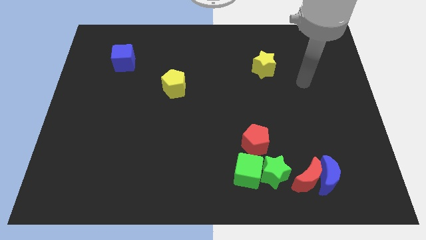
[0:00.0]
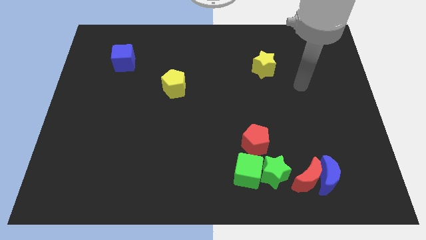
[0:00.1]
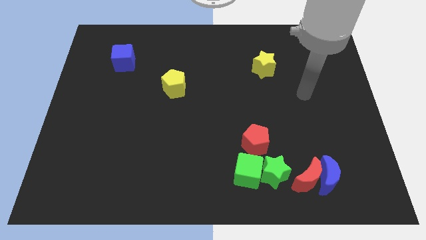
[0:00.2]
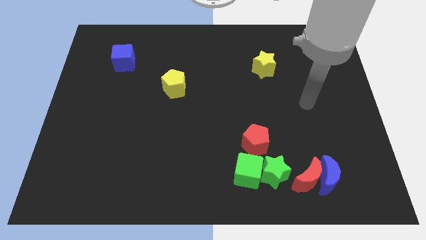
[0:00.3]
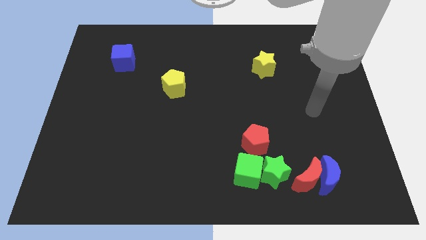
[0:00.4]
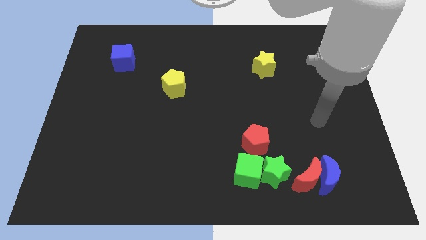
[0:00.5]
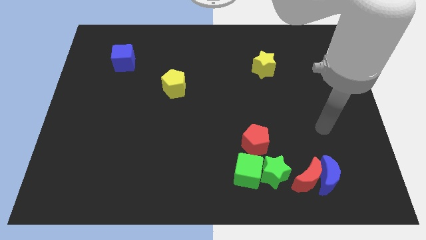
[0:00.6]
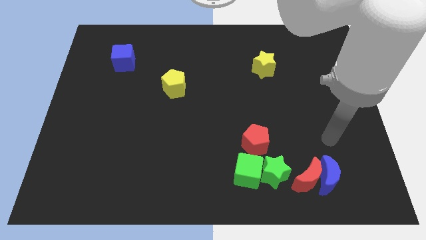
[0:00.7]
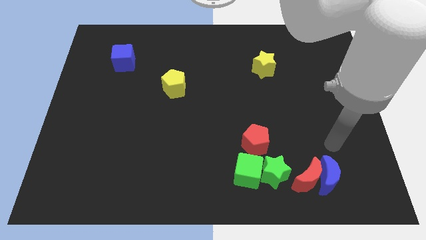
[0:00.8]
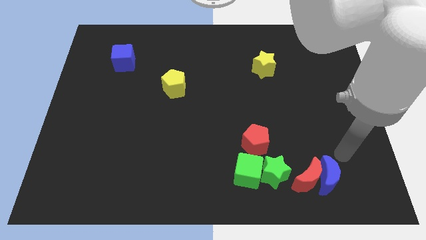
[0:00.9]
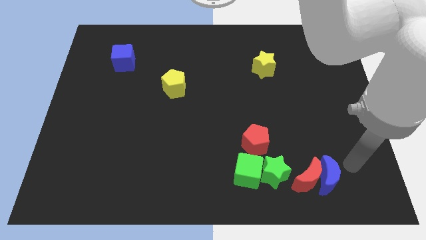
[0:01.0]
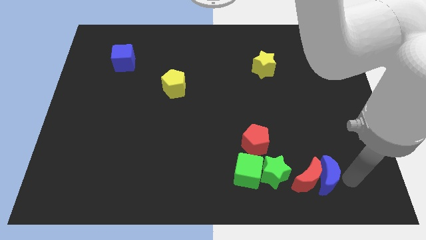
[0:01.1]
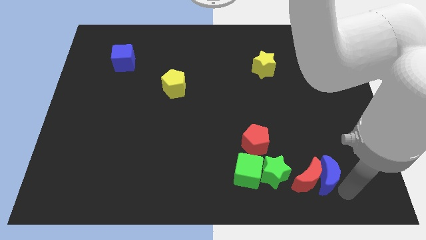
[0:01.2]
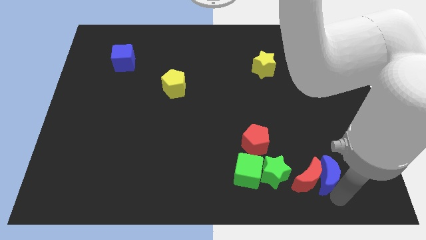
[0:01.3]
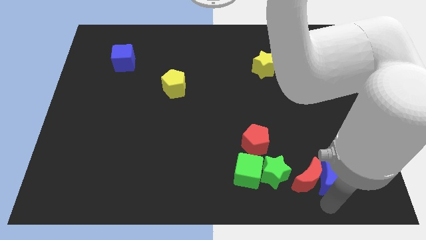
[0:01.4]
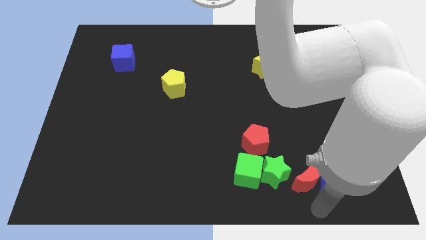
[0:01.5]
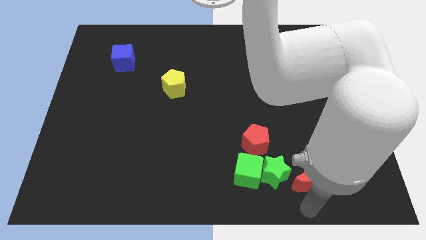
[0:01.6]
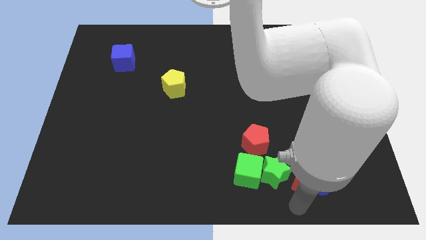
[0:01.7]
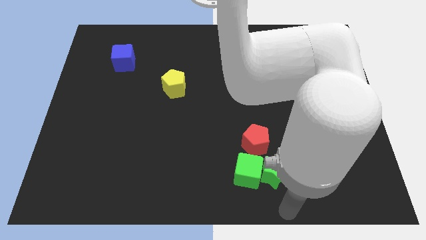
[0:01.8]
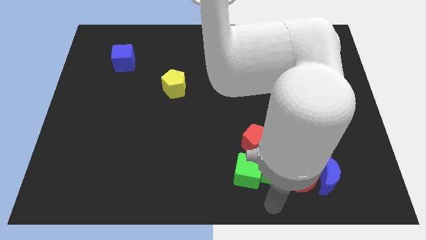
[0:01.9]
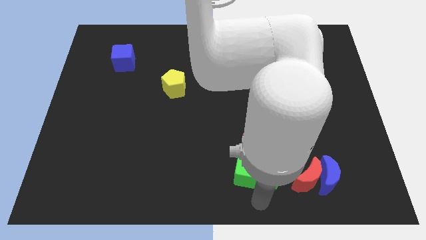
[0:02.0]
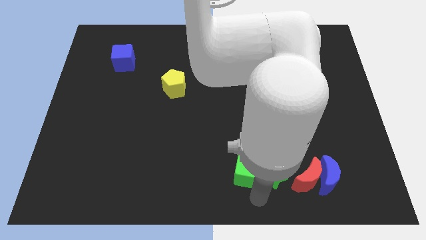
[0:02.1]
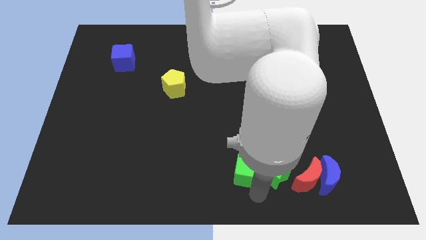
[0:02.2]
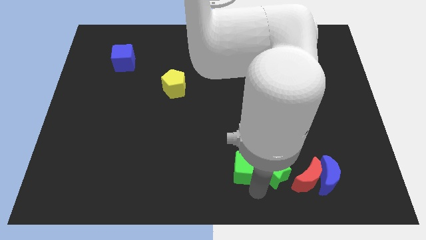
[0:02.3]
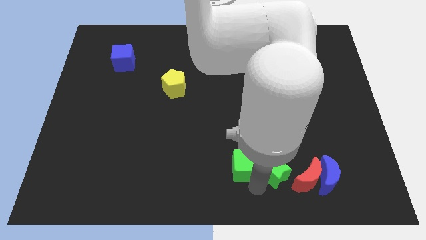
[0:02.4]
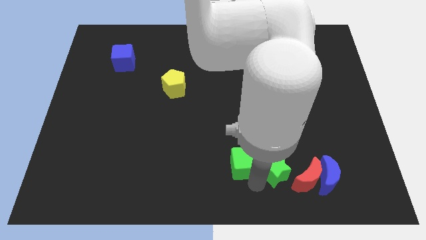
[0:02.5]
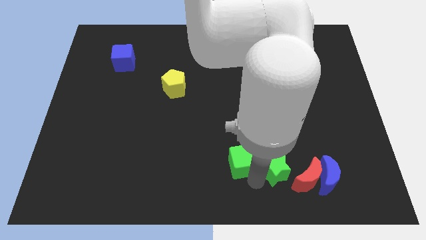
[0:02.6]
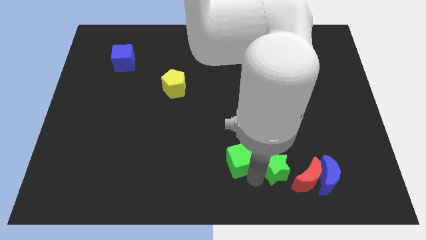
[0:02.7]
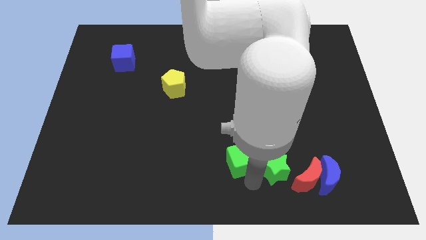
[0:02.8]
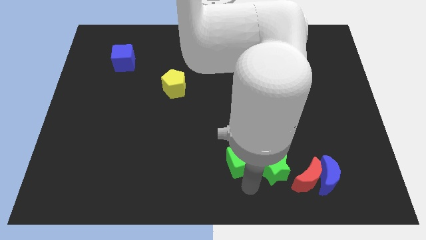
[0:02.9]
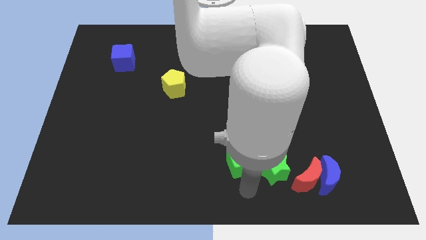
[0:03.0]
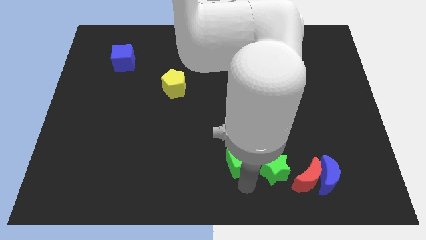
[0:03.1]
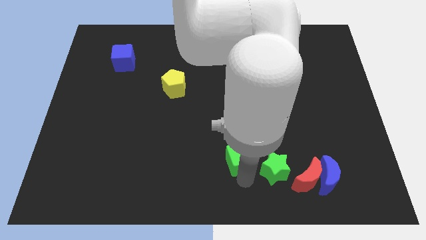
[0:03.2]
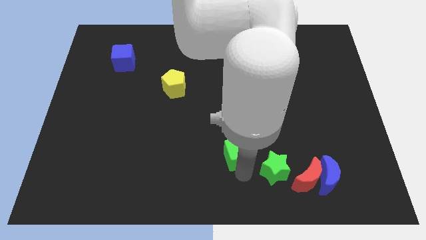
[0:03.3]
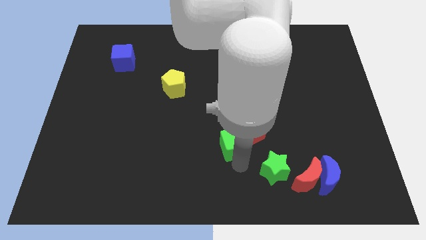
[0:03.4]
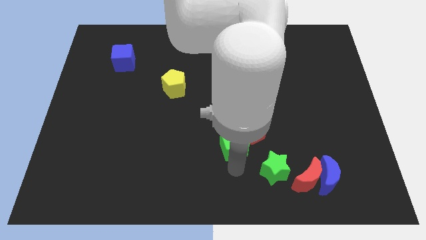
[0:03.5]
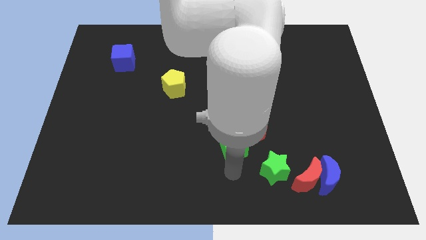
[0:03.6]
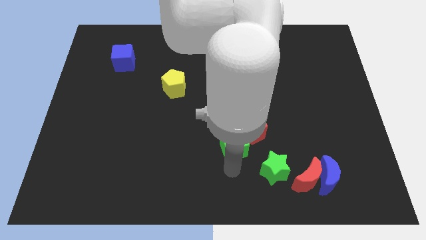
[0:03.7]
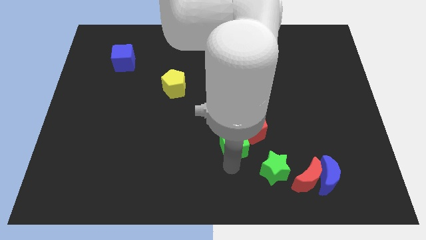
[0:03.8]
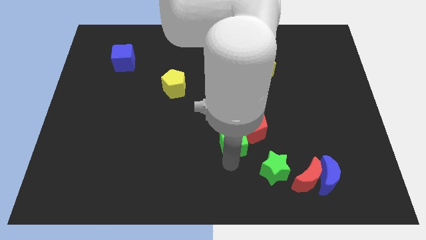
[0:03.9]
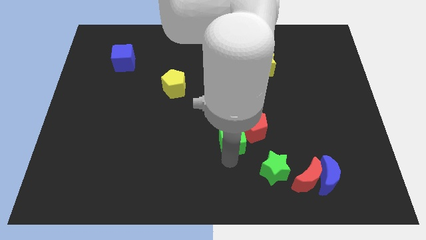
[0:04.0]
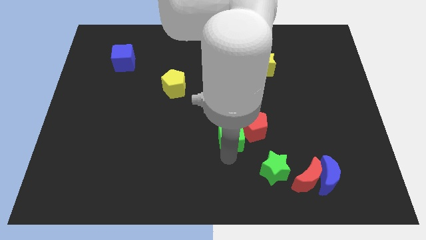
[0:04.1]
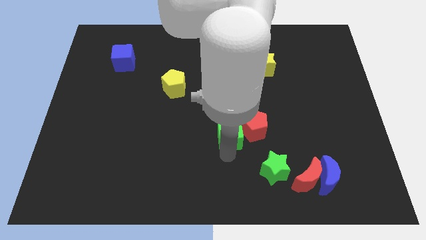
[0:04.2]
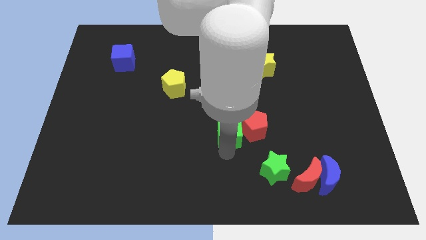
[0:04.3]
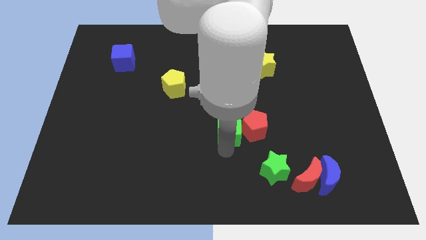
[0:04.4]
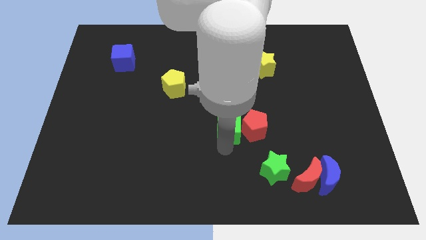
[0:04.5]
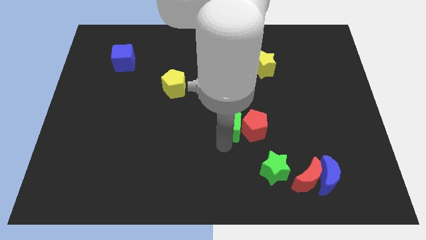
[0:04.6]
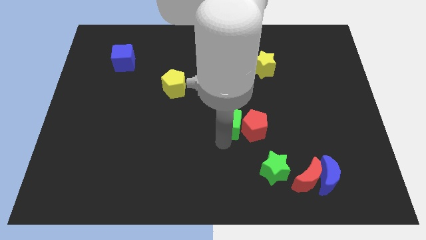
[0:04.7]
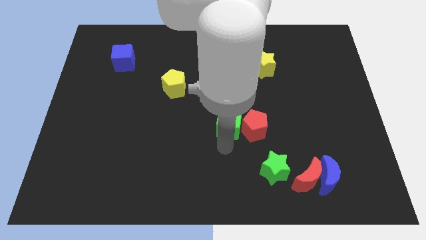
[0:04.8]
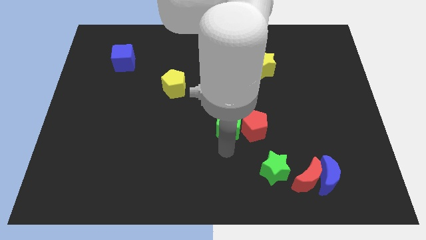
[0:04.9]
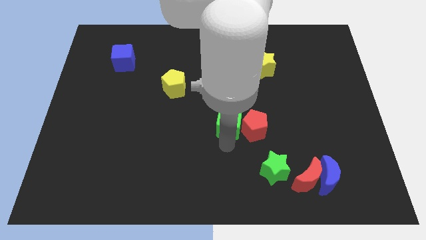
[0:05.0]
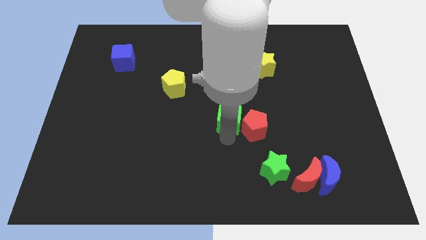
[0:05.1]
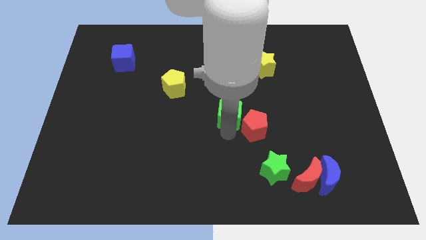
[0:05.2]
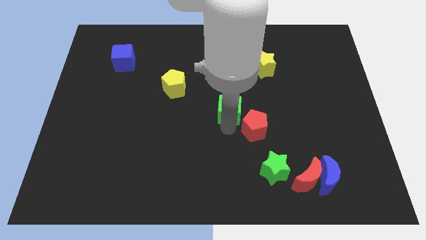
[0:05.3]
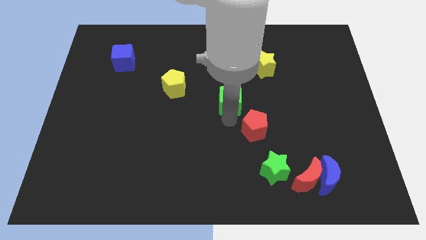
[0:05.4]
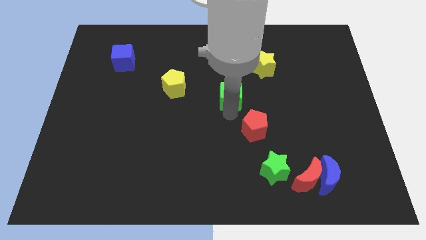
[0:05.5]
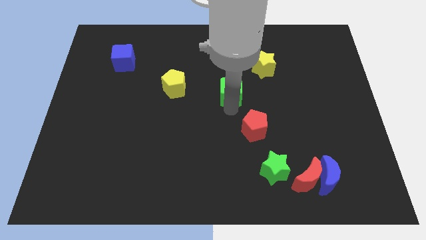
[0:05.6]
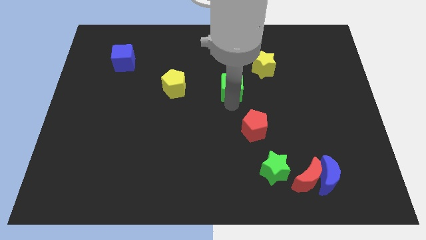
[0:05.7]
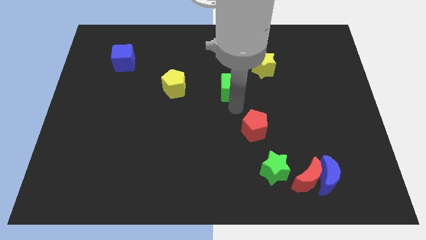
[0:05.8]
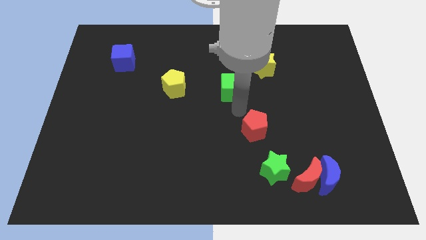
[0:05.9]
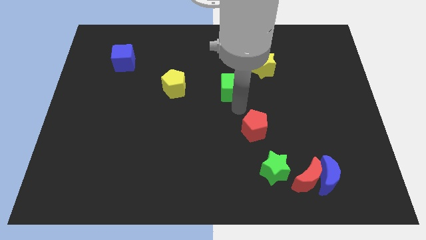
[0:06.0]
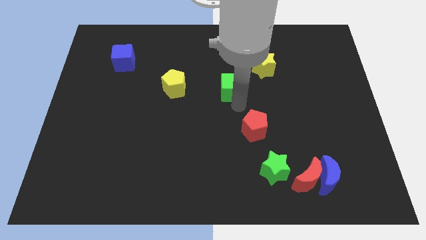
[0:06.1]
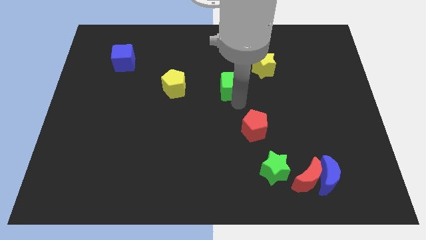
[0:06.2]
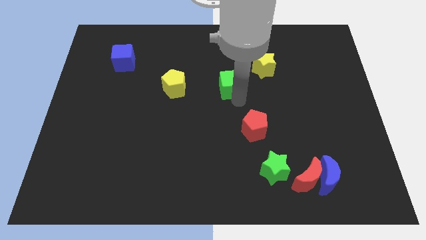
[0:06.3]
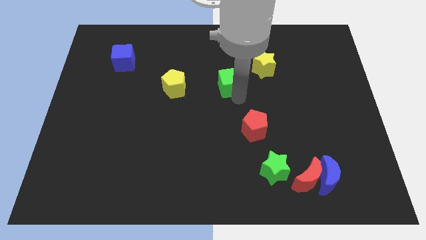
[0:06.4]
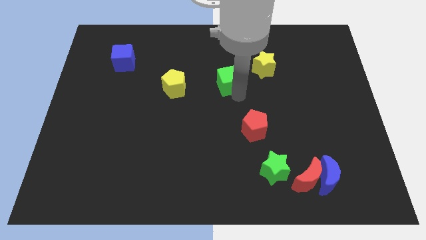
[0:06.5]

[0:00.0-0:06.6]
push the green cube just left of the yellow star
